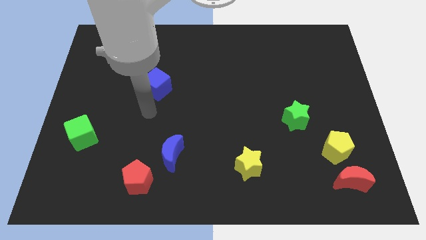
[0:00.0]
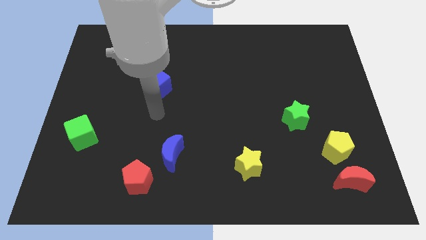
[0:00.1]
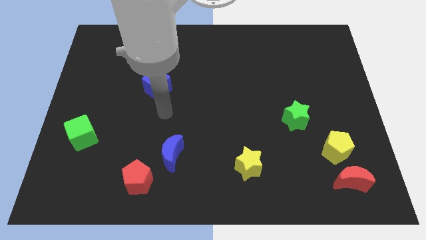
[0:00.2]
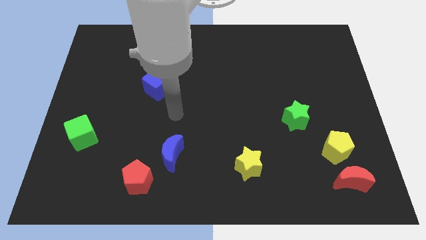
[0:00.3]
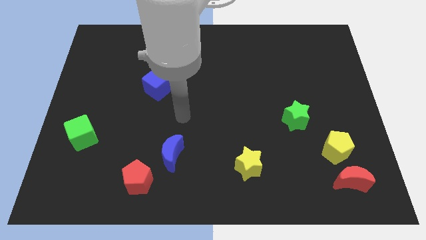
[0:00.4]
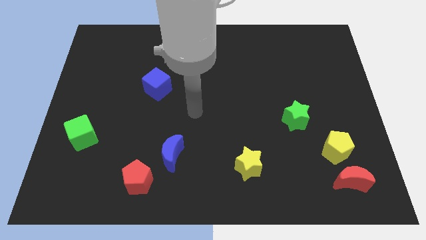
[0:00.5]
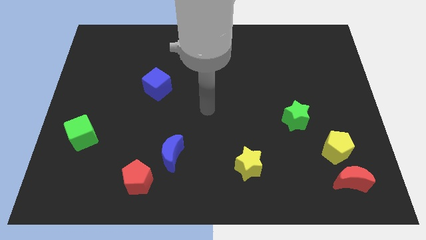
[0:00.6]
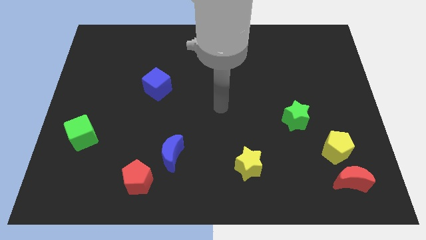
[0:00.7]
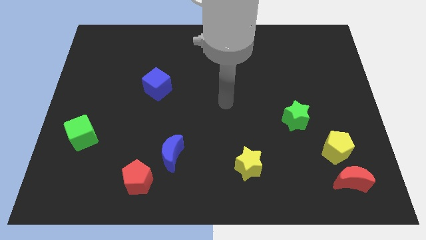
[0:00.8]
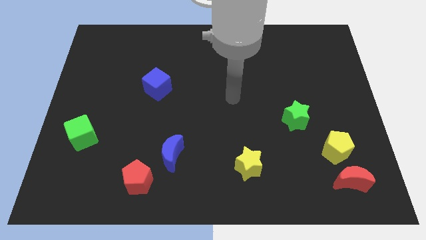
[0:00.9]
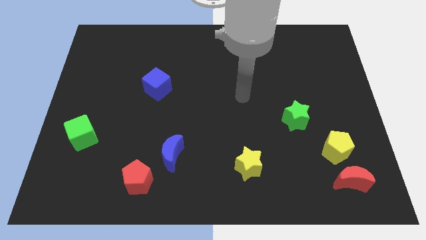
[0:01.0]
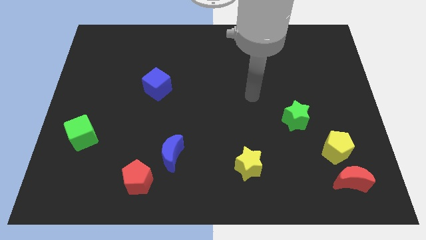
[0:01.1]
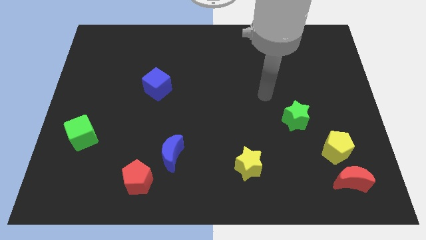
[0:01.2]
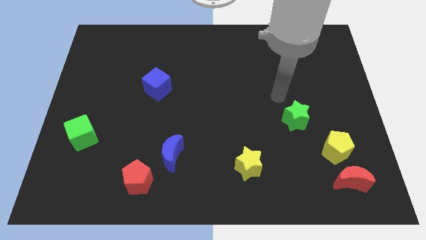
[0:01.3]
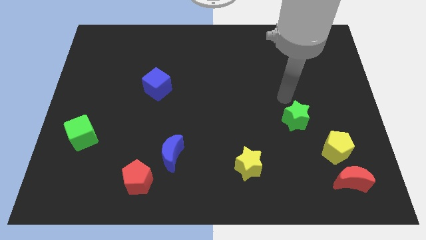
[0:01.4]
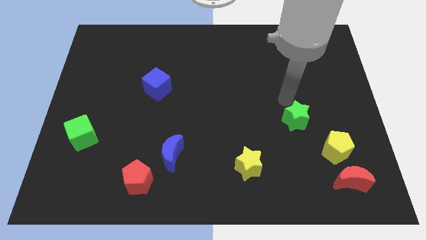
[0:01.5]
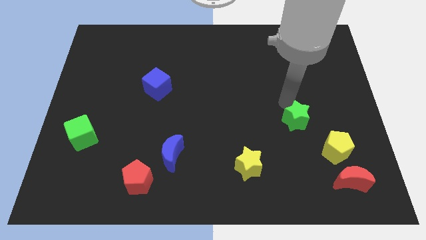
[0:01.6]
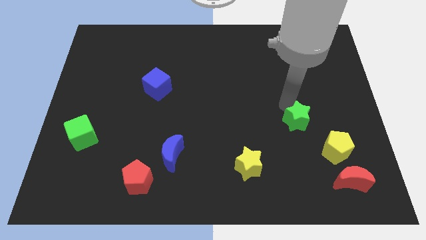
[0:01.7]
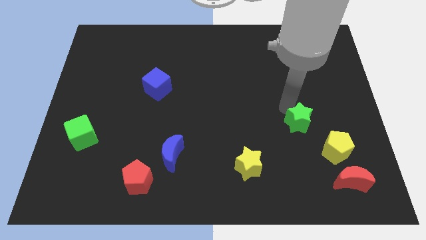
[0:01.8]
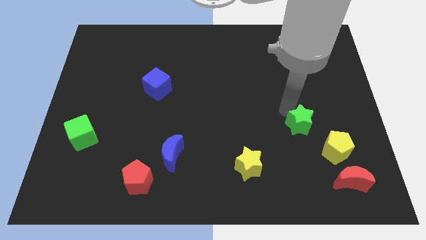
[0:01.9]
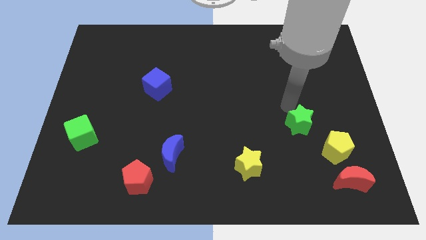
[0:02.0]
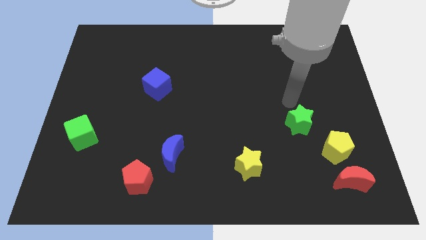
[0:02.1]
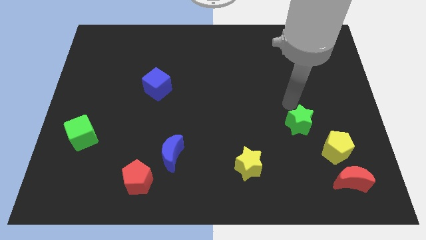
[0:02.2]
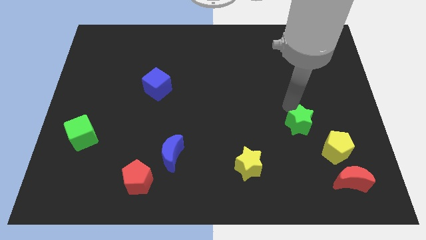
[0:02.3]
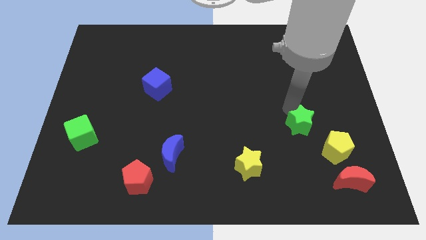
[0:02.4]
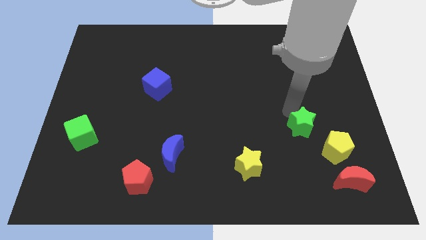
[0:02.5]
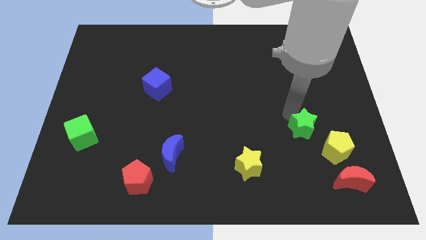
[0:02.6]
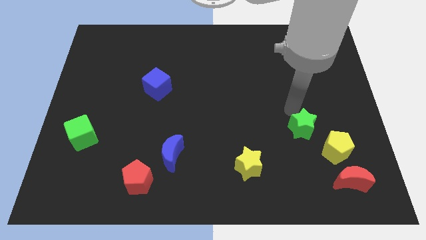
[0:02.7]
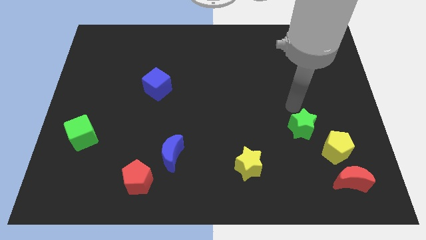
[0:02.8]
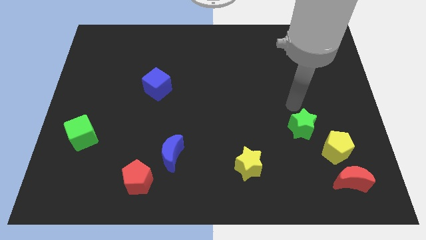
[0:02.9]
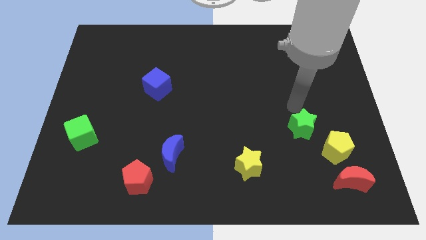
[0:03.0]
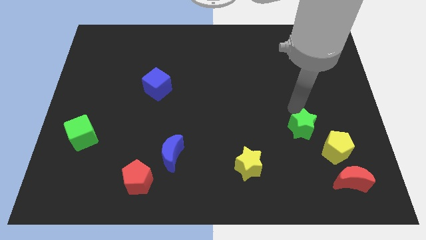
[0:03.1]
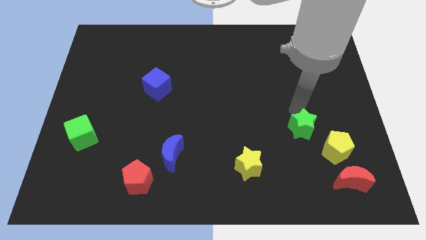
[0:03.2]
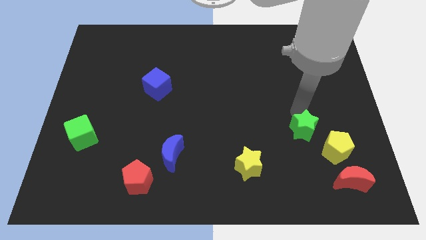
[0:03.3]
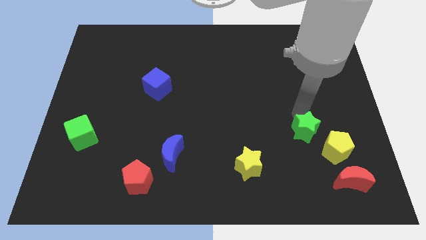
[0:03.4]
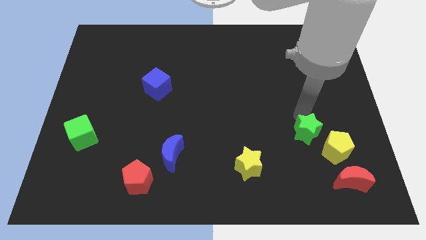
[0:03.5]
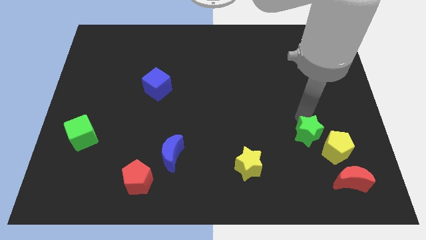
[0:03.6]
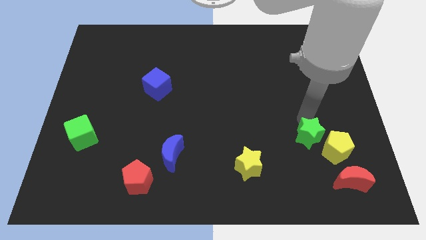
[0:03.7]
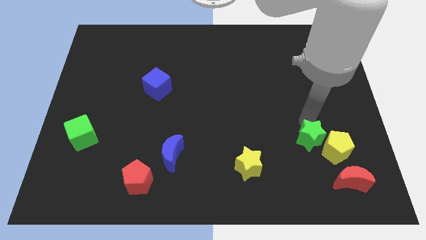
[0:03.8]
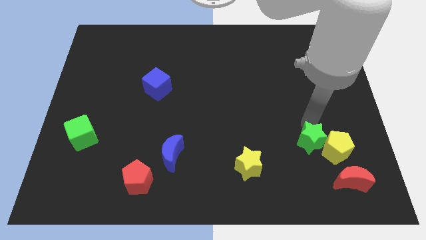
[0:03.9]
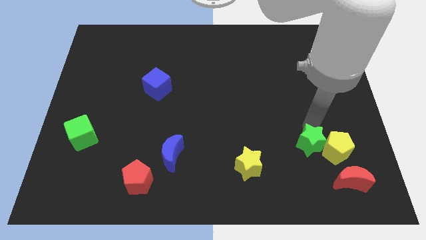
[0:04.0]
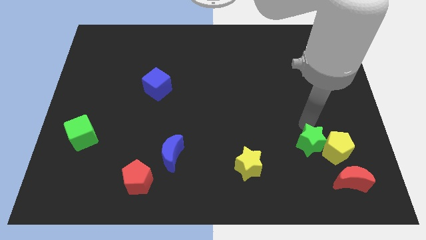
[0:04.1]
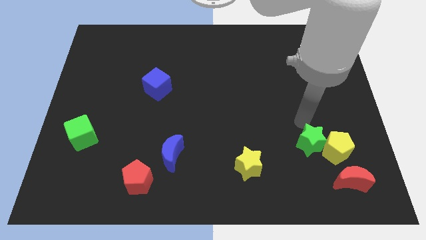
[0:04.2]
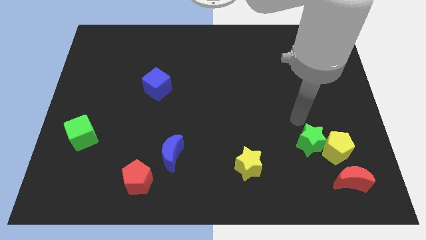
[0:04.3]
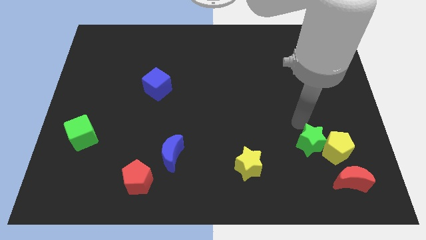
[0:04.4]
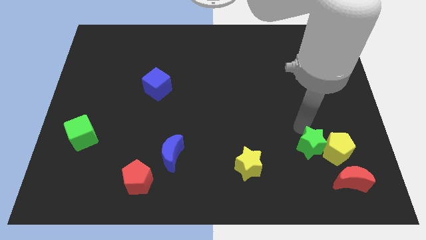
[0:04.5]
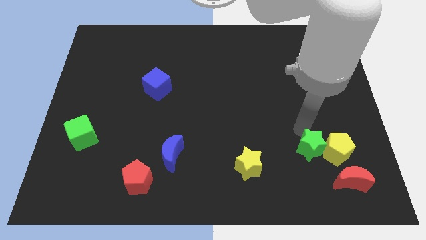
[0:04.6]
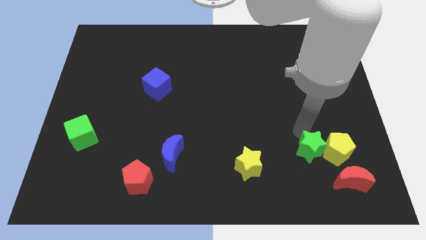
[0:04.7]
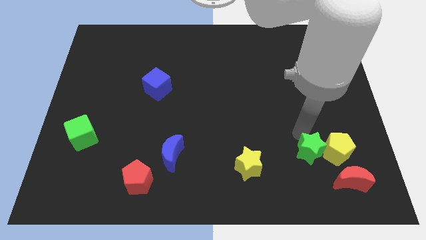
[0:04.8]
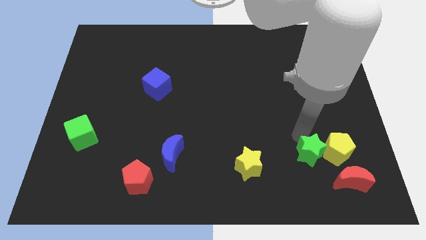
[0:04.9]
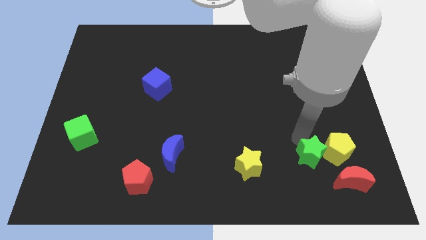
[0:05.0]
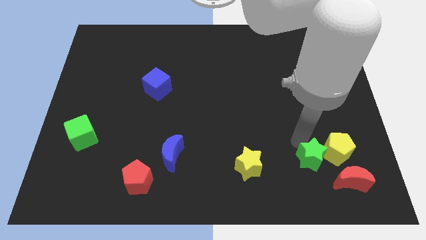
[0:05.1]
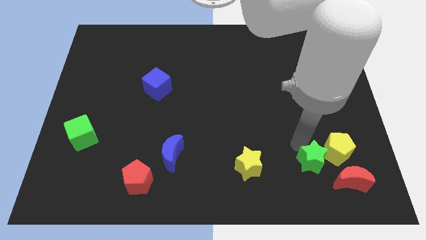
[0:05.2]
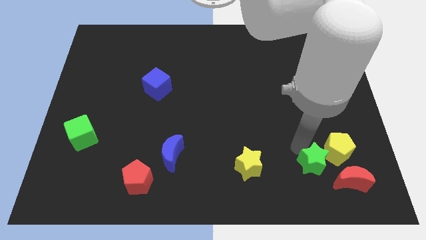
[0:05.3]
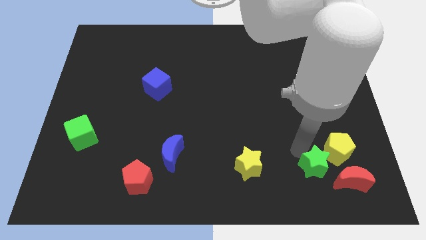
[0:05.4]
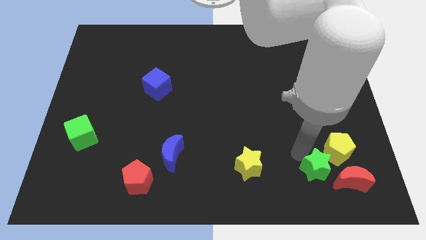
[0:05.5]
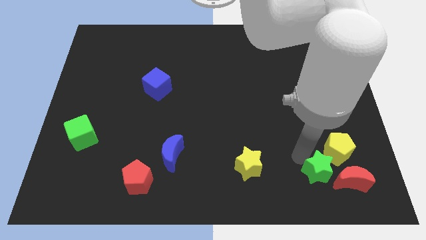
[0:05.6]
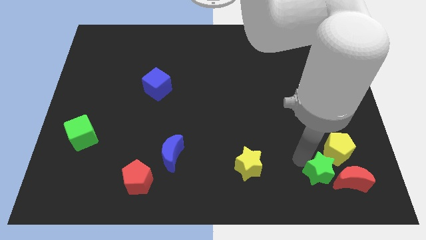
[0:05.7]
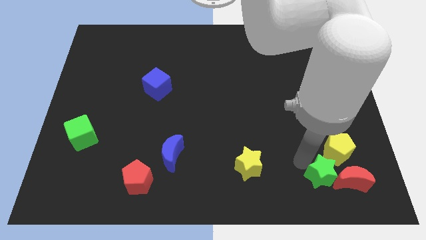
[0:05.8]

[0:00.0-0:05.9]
move the green star to the red moon

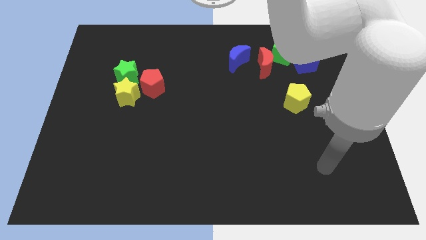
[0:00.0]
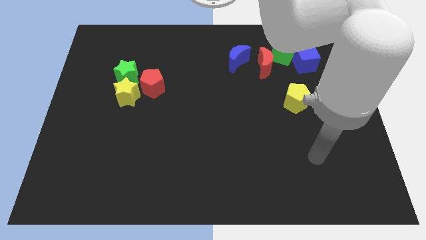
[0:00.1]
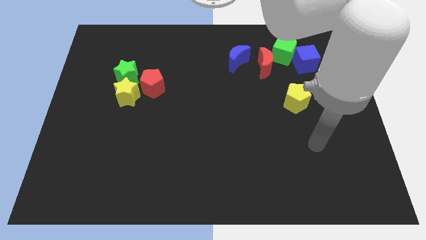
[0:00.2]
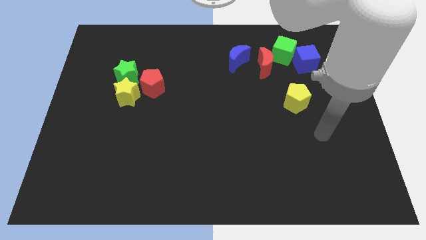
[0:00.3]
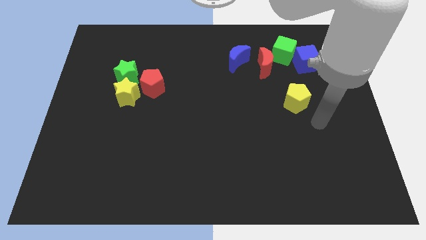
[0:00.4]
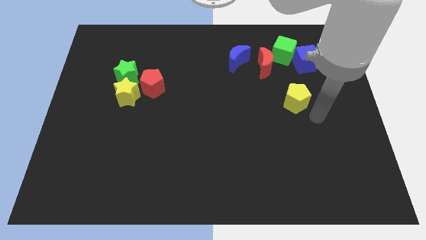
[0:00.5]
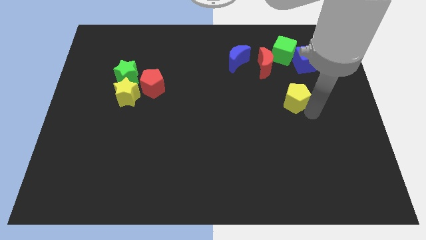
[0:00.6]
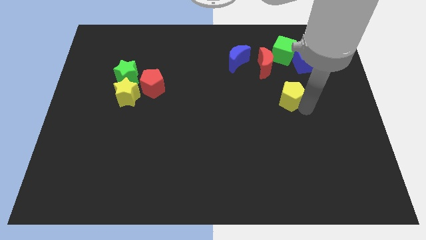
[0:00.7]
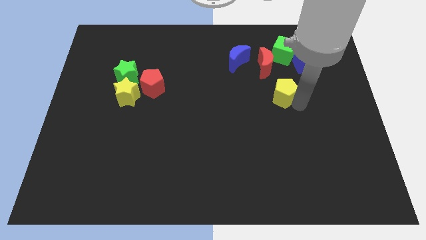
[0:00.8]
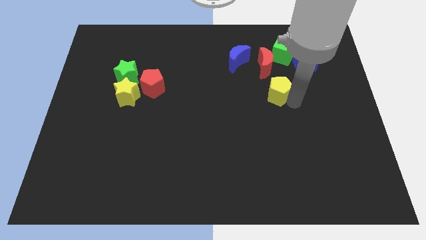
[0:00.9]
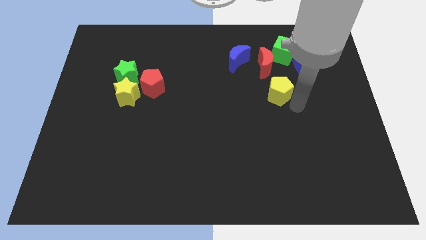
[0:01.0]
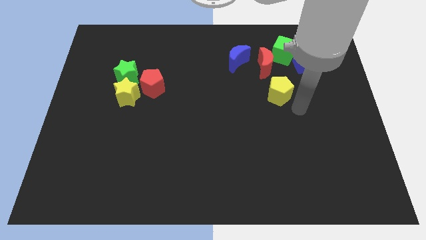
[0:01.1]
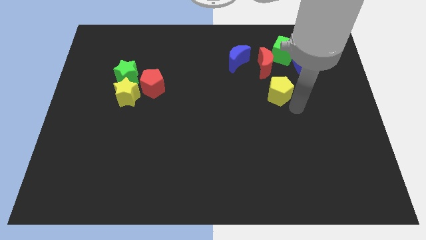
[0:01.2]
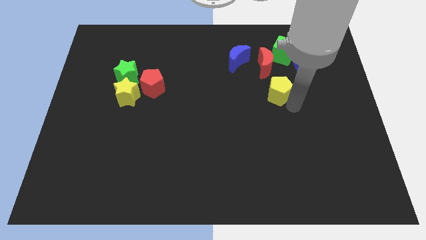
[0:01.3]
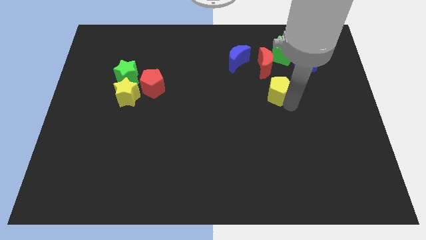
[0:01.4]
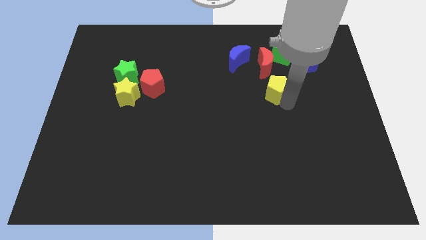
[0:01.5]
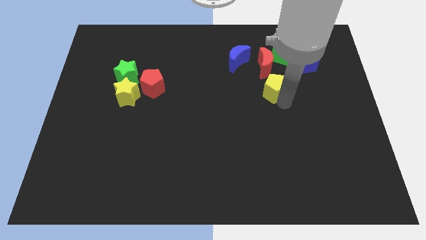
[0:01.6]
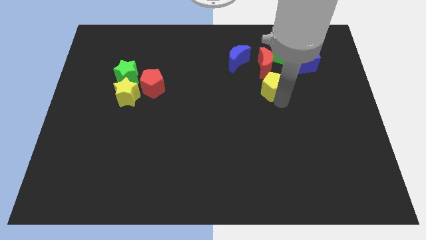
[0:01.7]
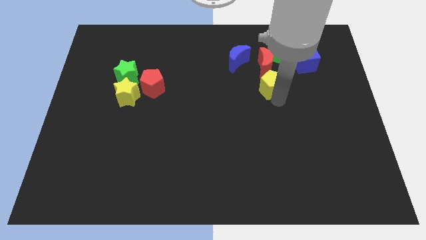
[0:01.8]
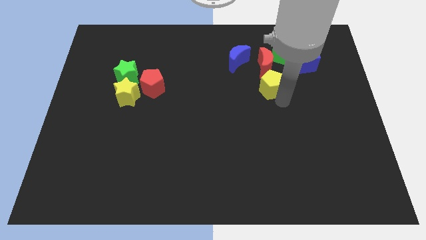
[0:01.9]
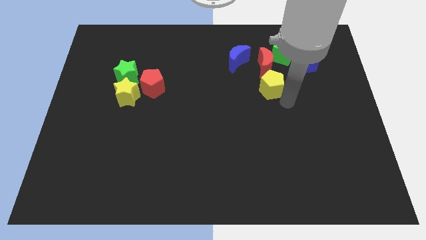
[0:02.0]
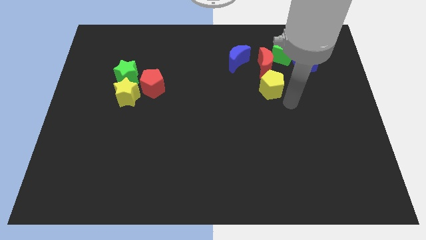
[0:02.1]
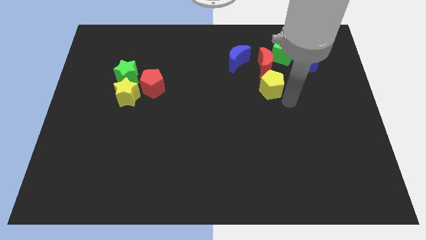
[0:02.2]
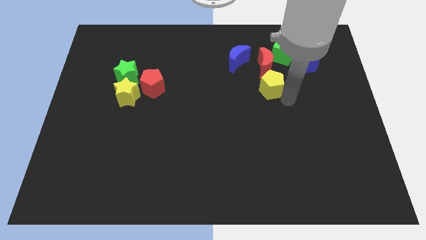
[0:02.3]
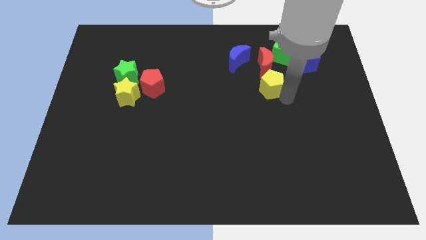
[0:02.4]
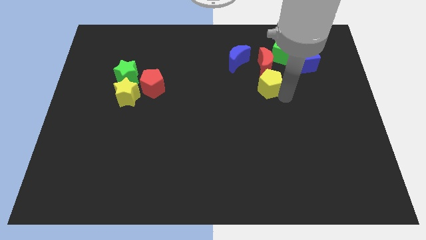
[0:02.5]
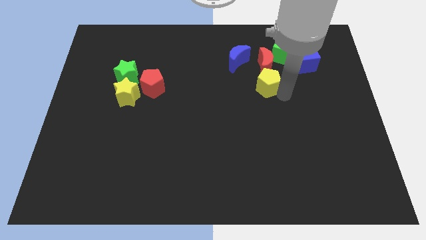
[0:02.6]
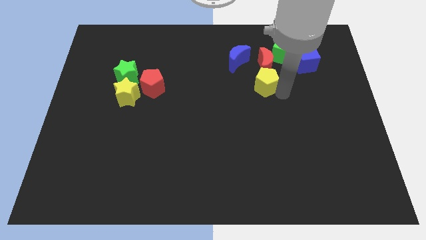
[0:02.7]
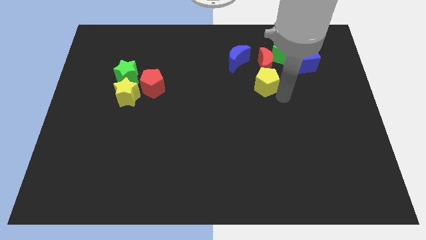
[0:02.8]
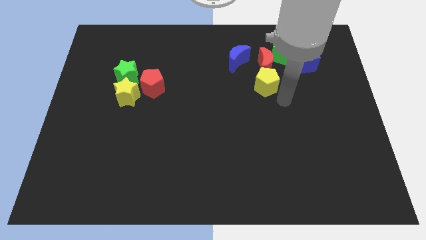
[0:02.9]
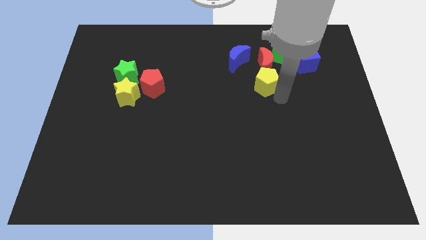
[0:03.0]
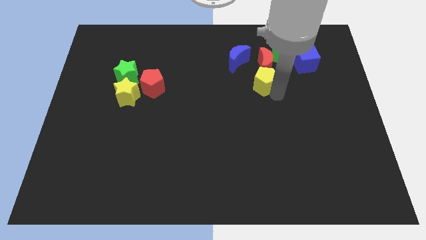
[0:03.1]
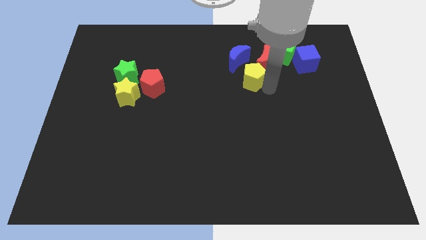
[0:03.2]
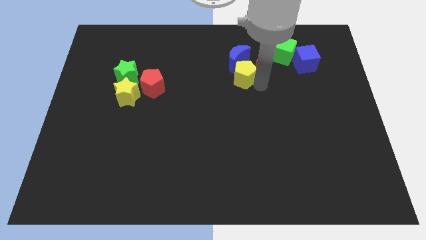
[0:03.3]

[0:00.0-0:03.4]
put the yellow pentagon next to the blue moon
